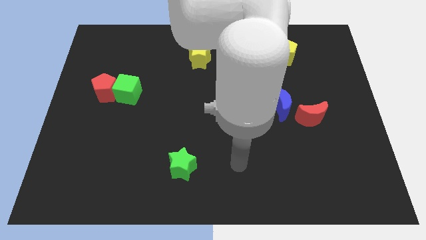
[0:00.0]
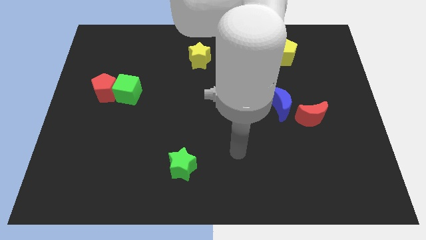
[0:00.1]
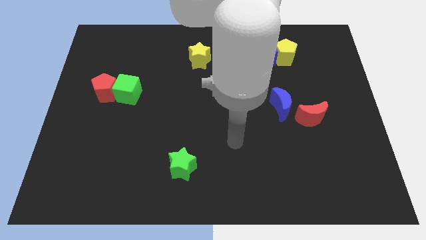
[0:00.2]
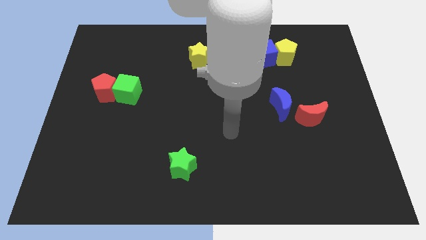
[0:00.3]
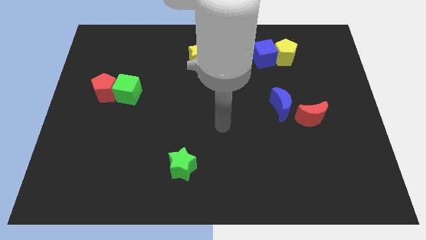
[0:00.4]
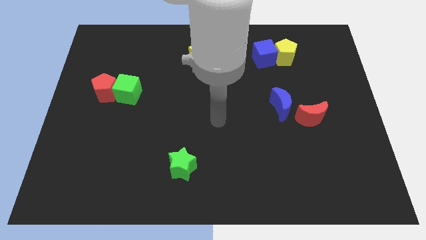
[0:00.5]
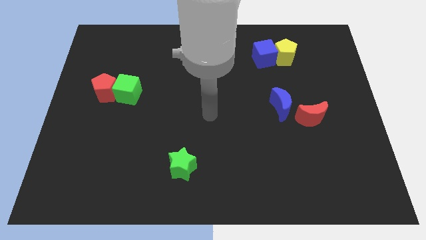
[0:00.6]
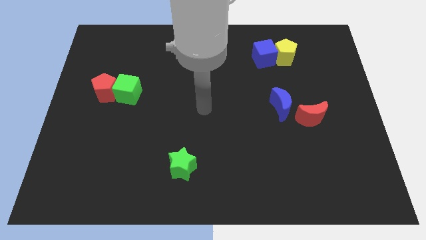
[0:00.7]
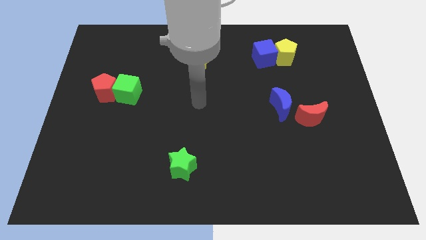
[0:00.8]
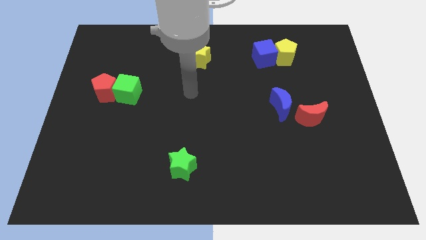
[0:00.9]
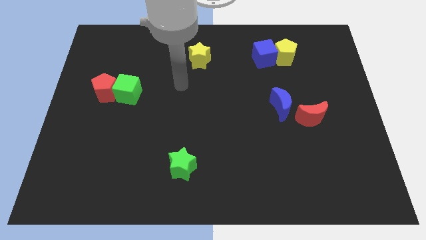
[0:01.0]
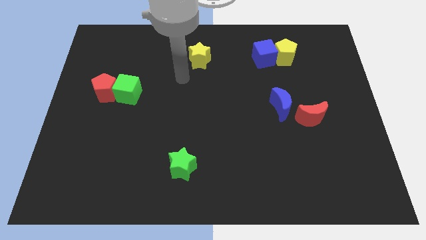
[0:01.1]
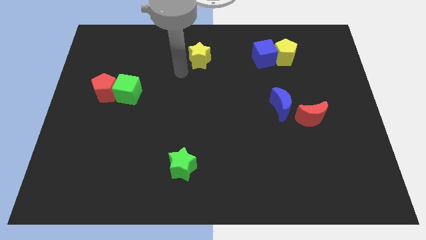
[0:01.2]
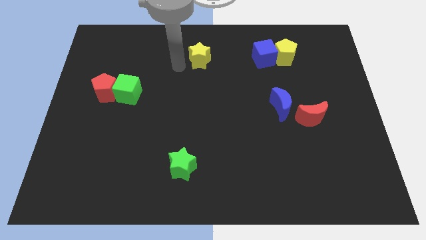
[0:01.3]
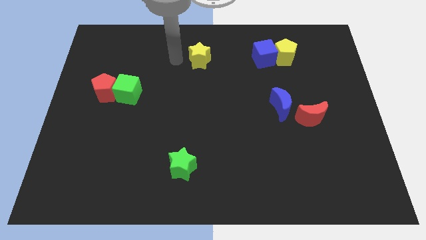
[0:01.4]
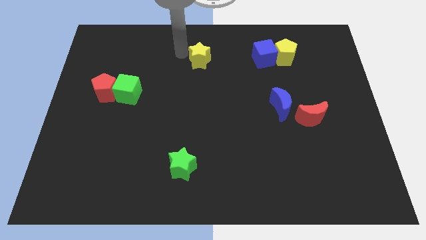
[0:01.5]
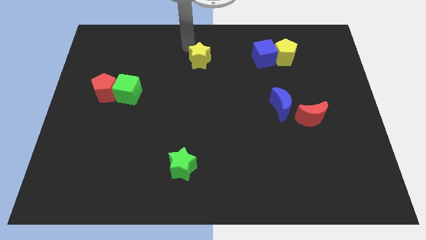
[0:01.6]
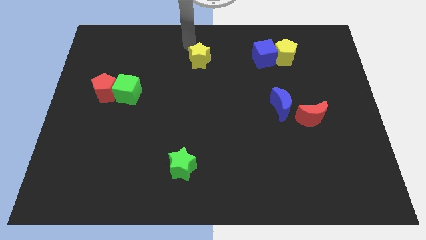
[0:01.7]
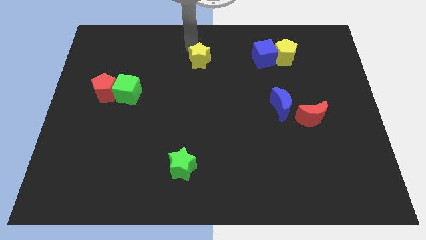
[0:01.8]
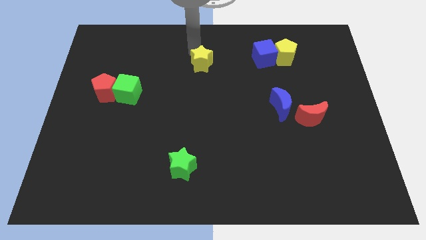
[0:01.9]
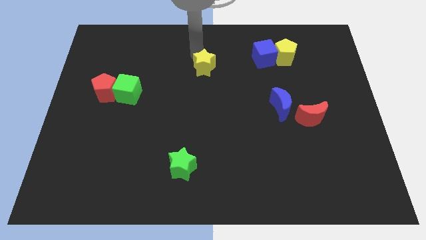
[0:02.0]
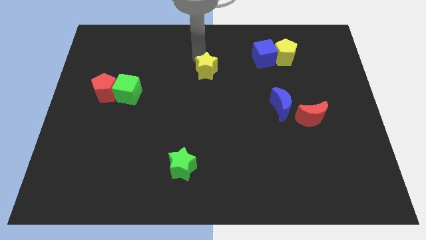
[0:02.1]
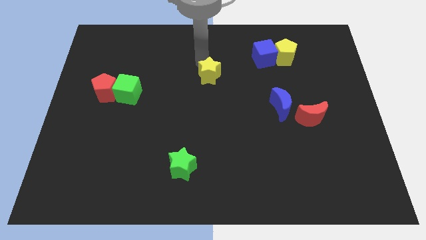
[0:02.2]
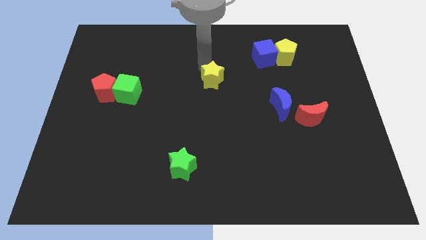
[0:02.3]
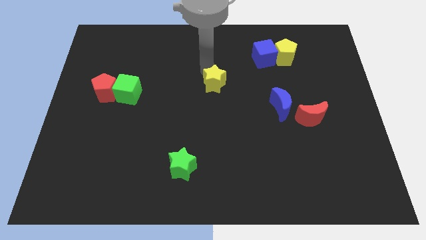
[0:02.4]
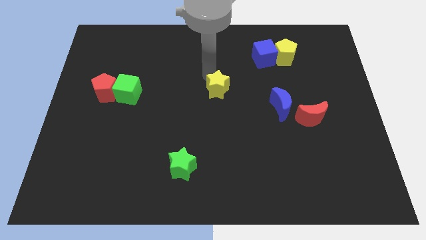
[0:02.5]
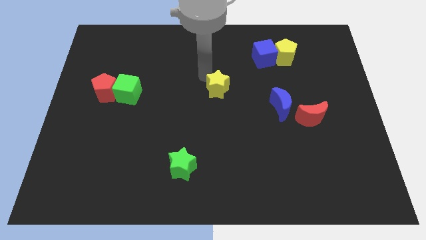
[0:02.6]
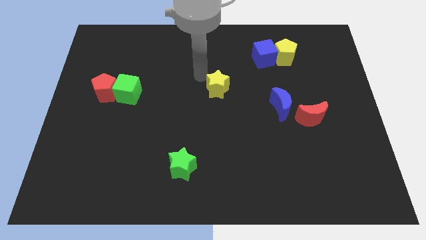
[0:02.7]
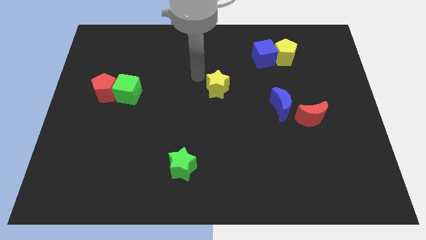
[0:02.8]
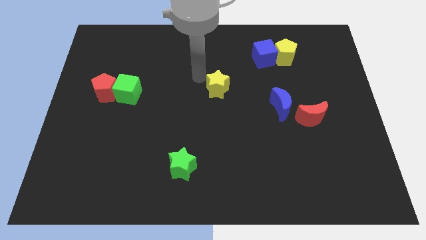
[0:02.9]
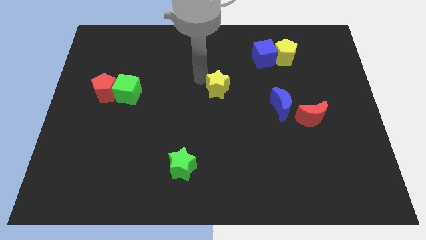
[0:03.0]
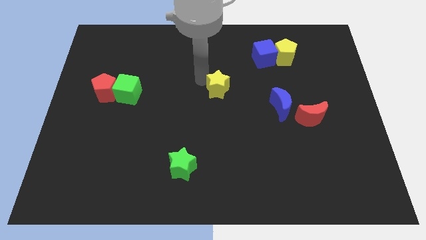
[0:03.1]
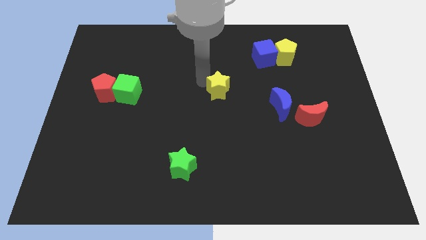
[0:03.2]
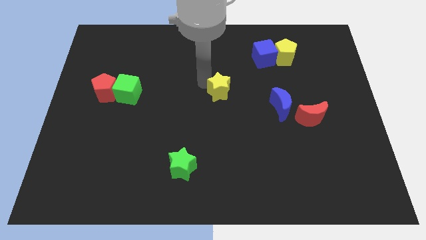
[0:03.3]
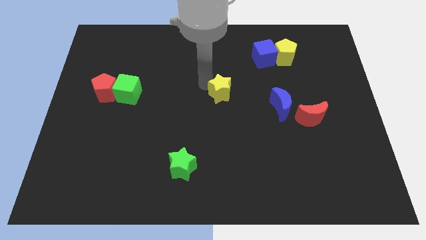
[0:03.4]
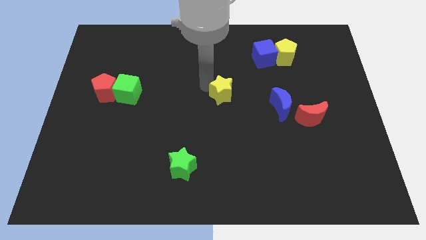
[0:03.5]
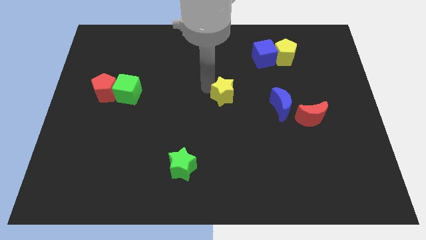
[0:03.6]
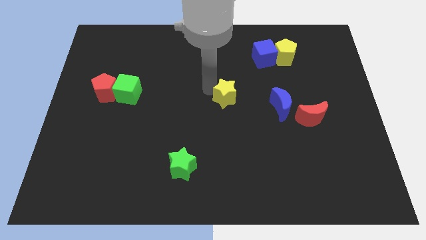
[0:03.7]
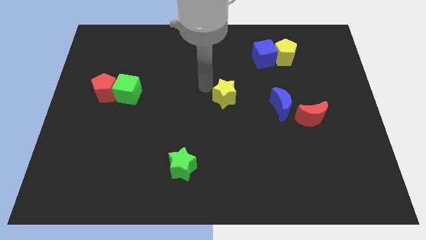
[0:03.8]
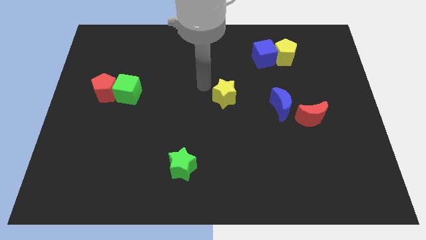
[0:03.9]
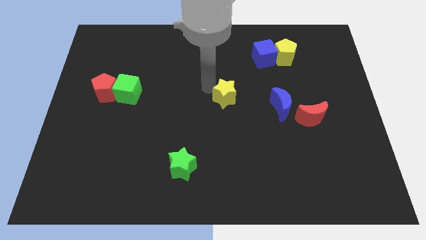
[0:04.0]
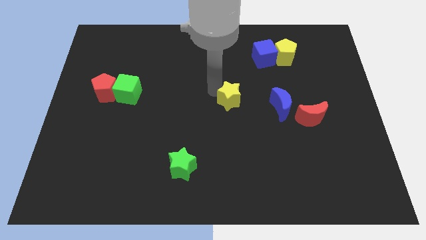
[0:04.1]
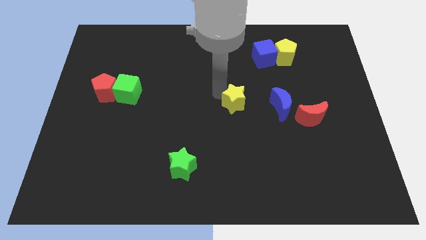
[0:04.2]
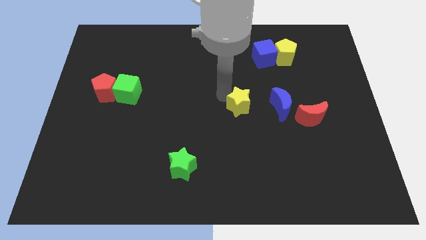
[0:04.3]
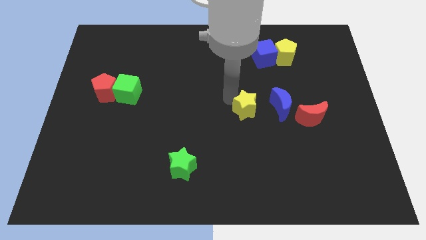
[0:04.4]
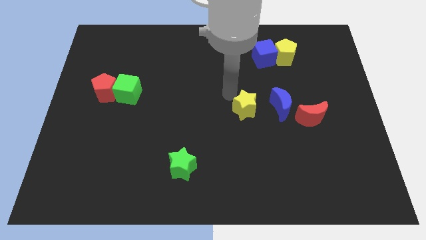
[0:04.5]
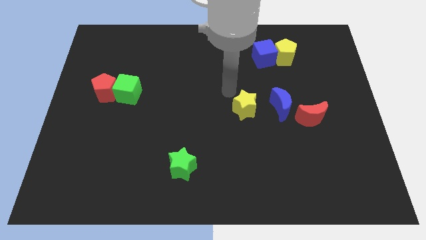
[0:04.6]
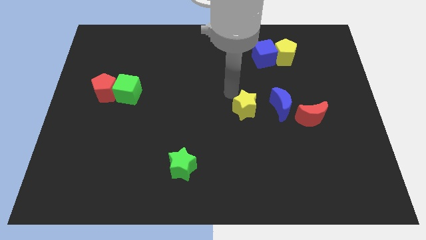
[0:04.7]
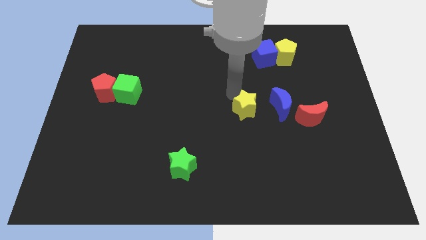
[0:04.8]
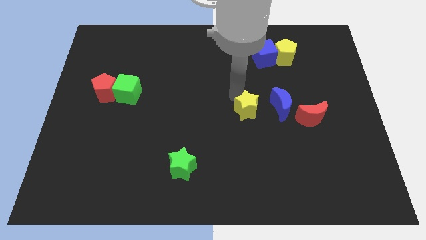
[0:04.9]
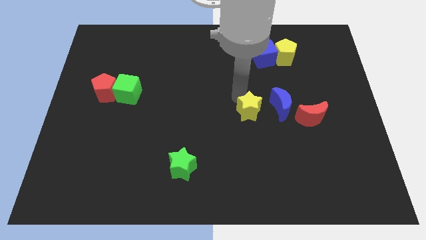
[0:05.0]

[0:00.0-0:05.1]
slide the yellow star to the bottom left of the blue moon

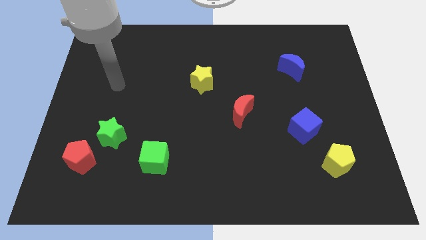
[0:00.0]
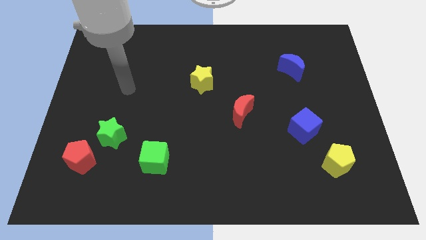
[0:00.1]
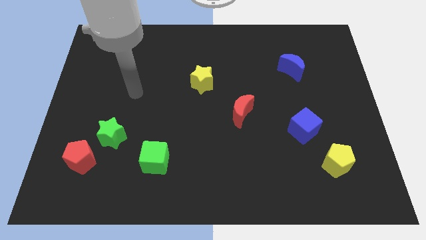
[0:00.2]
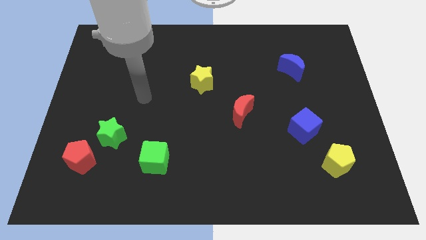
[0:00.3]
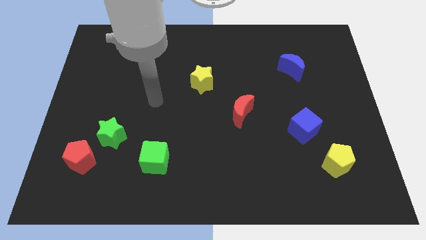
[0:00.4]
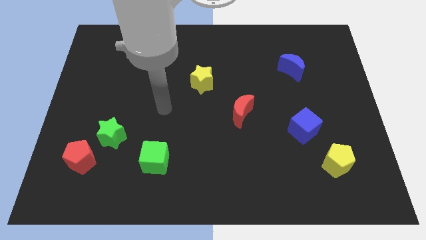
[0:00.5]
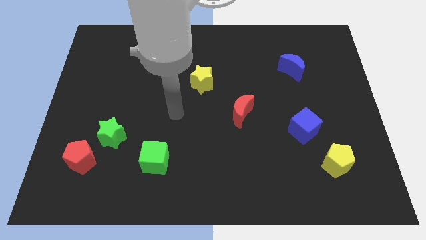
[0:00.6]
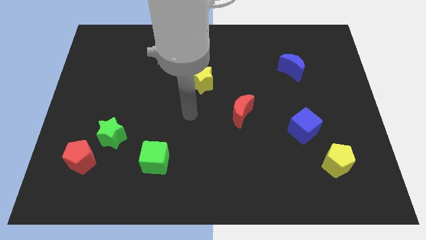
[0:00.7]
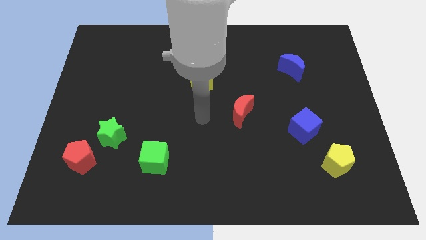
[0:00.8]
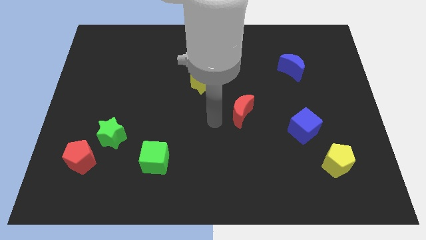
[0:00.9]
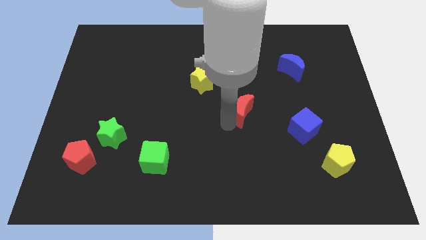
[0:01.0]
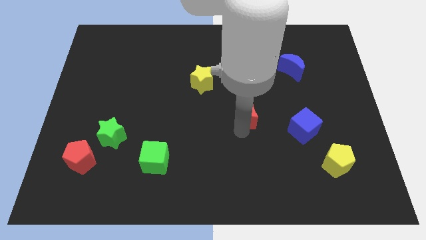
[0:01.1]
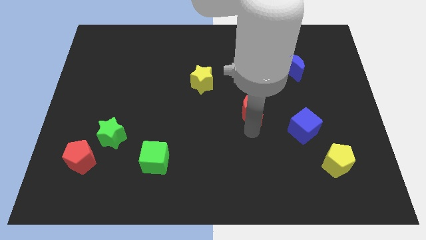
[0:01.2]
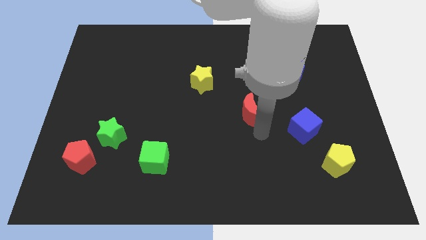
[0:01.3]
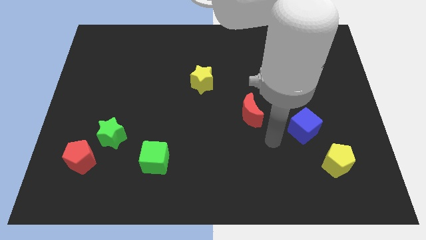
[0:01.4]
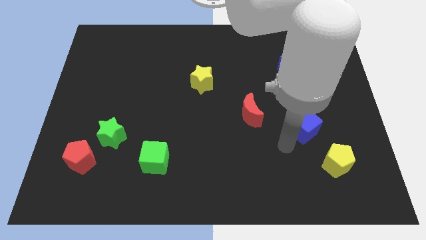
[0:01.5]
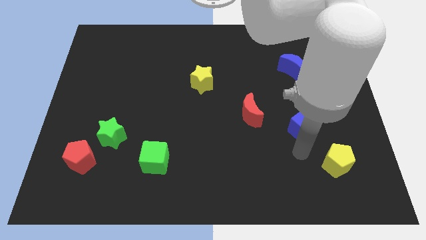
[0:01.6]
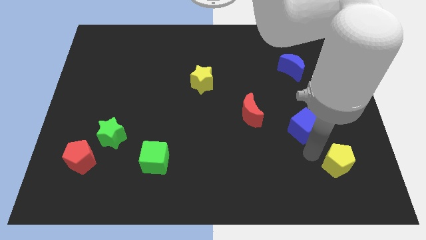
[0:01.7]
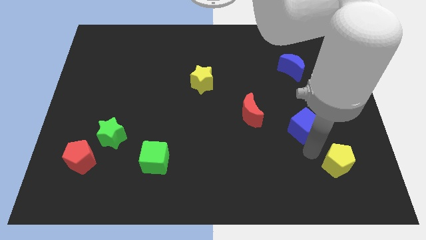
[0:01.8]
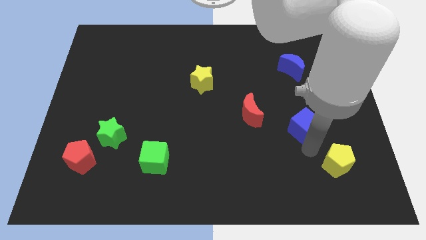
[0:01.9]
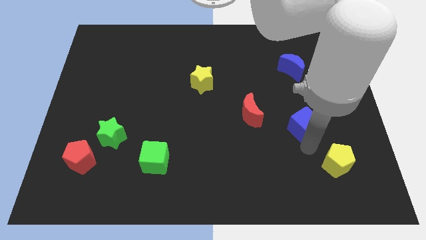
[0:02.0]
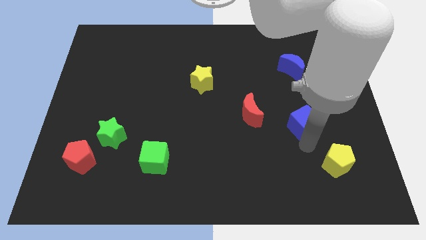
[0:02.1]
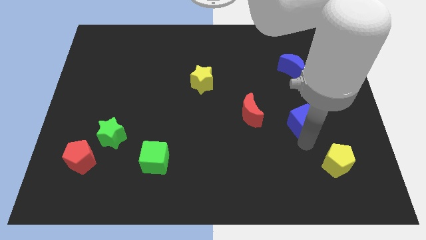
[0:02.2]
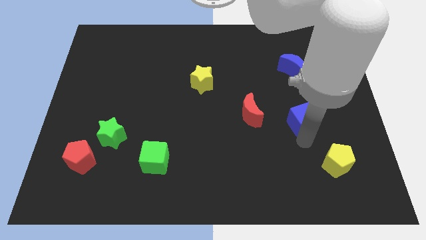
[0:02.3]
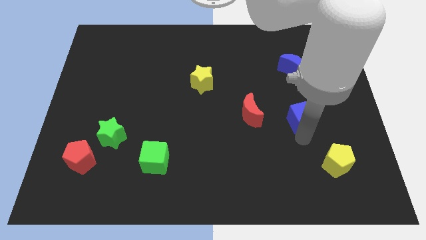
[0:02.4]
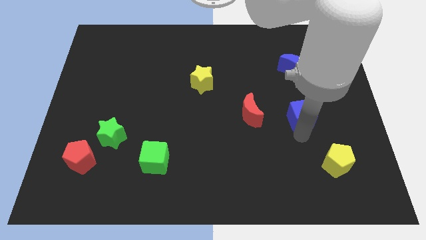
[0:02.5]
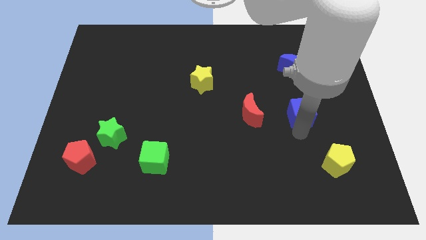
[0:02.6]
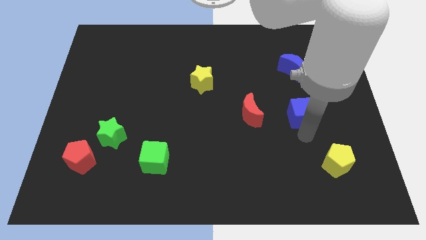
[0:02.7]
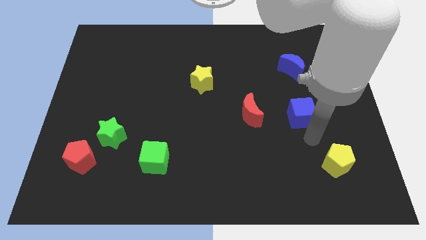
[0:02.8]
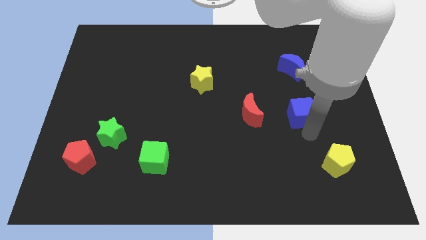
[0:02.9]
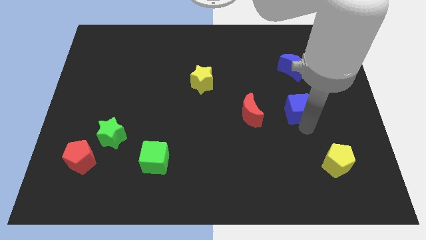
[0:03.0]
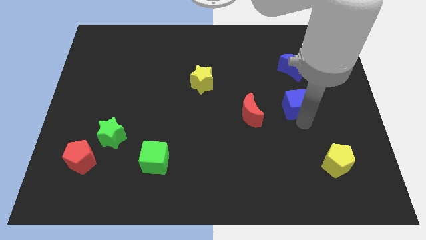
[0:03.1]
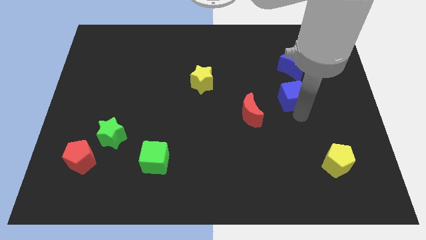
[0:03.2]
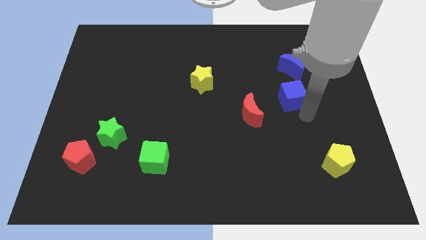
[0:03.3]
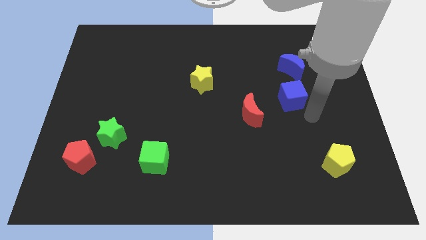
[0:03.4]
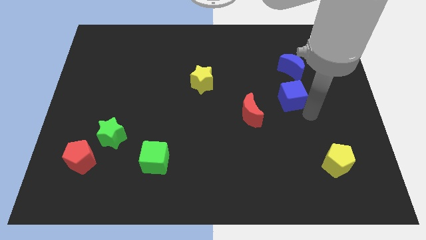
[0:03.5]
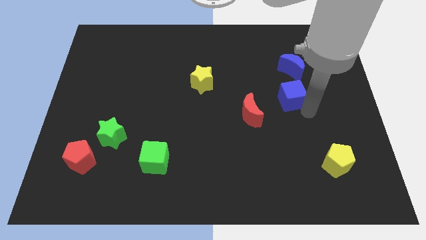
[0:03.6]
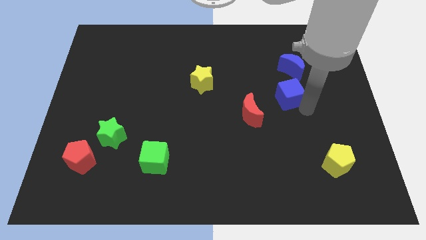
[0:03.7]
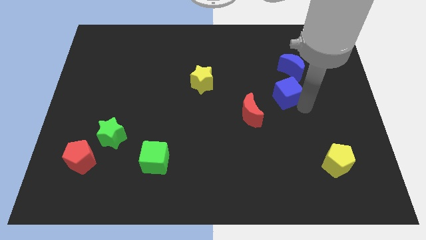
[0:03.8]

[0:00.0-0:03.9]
move the blue cube to the bottom left side of the blue moon
